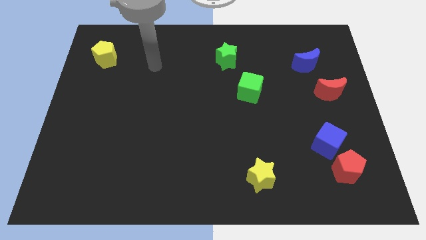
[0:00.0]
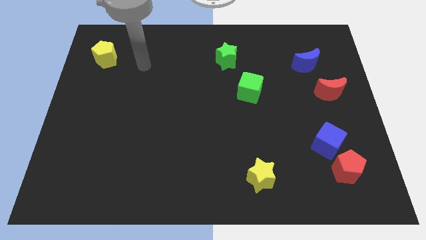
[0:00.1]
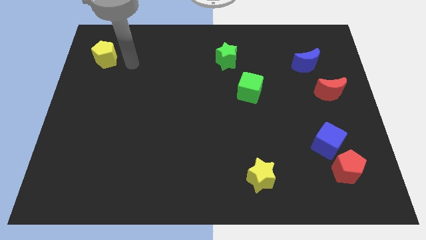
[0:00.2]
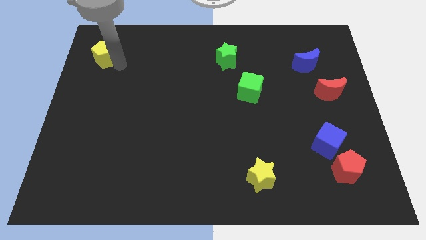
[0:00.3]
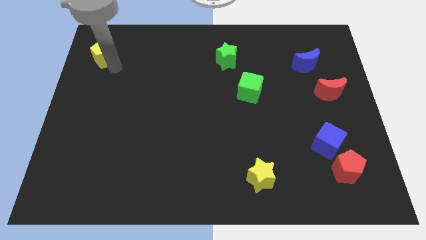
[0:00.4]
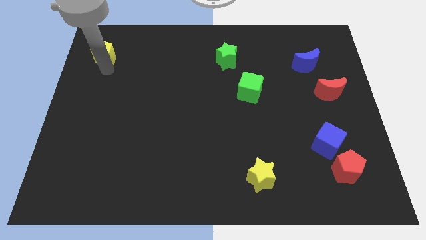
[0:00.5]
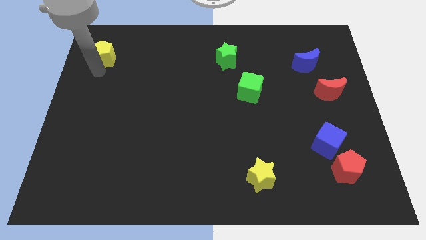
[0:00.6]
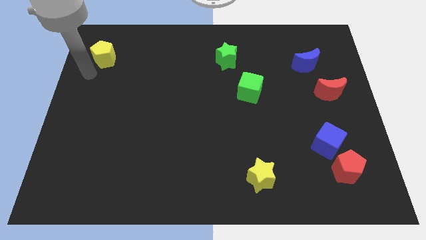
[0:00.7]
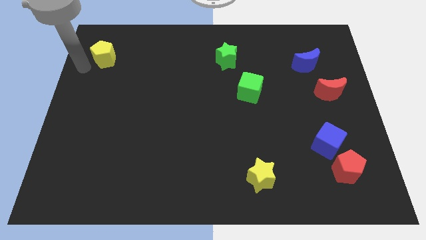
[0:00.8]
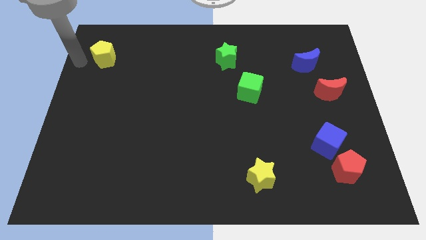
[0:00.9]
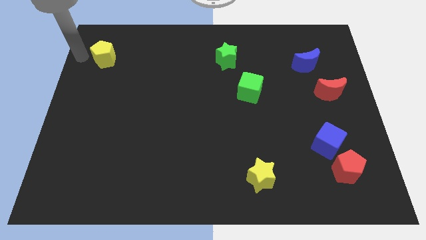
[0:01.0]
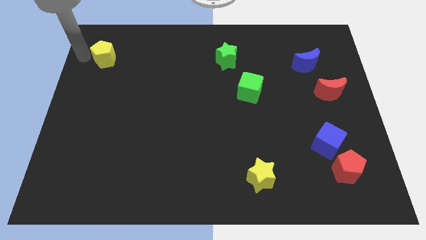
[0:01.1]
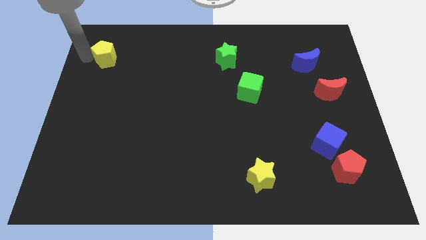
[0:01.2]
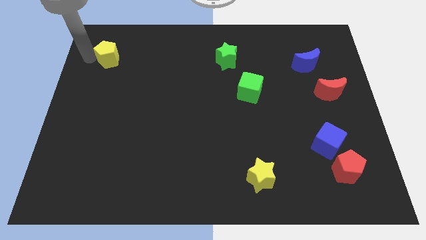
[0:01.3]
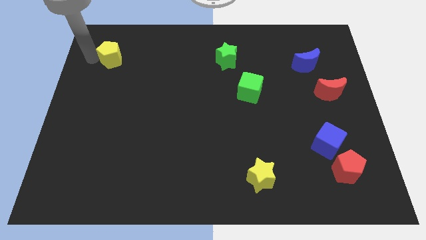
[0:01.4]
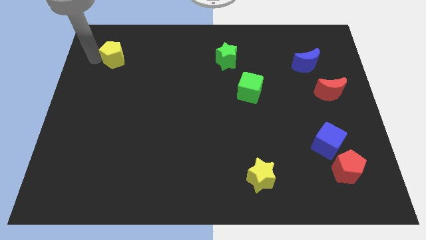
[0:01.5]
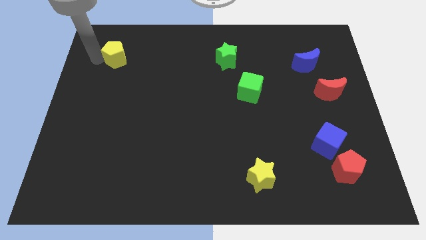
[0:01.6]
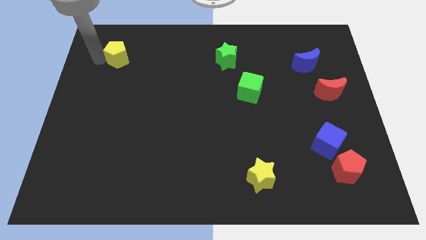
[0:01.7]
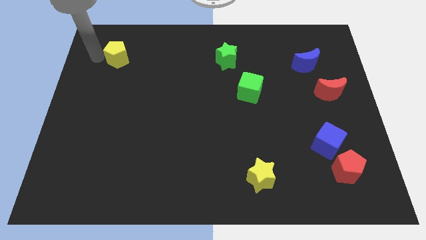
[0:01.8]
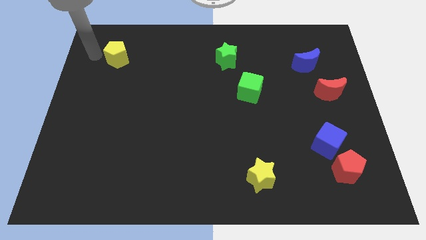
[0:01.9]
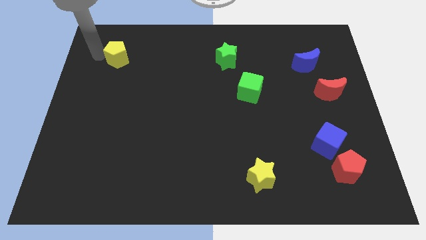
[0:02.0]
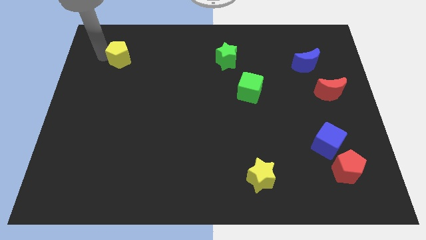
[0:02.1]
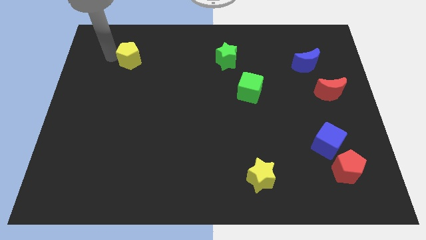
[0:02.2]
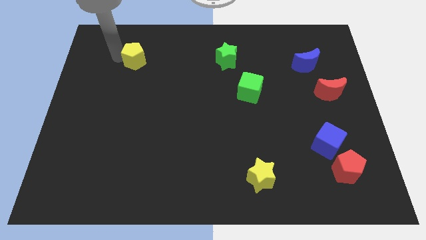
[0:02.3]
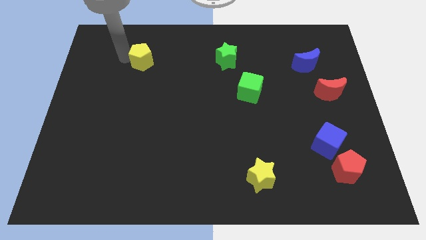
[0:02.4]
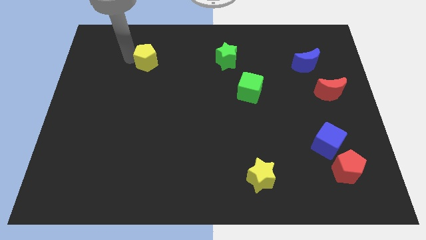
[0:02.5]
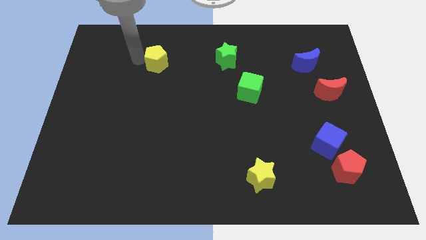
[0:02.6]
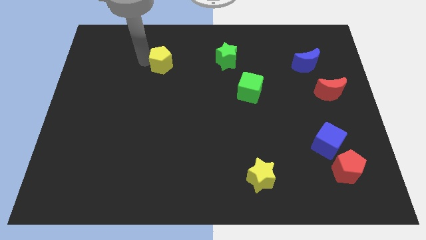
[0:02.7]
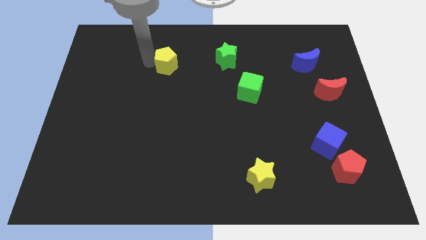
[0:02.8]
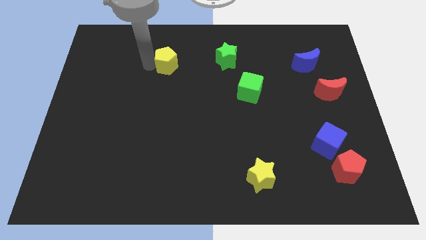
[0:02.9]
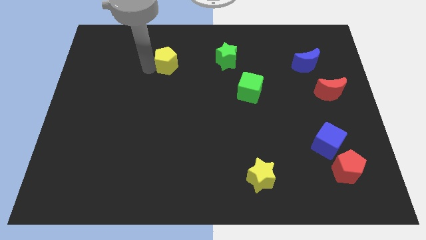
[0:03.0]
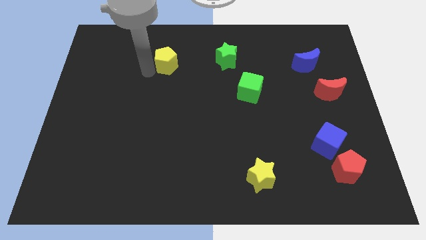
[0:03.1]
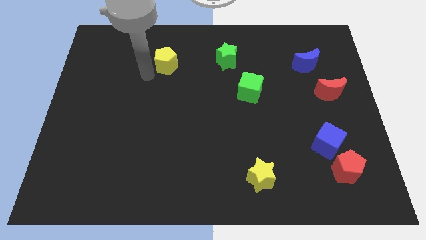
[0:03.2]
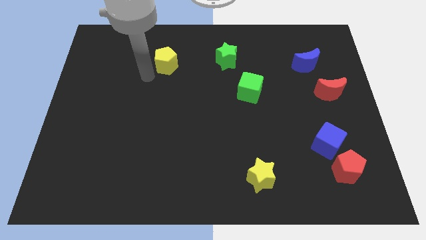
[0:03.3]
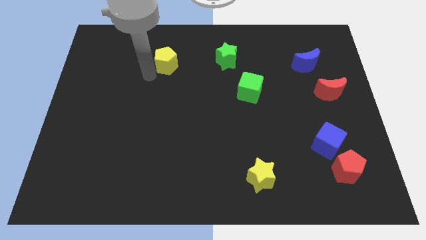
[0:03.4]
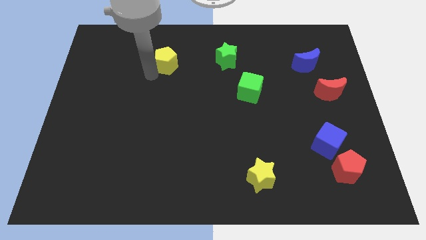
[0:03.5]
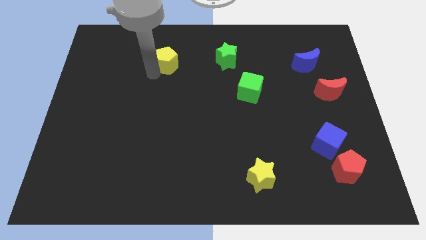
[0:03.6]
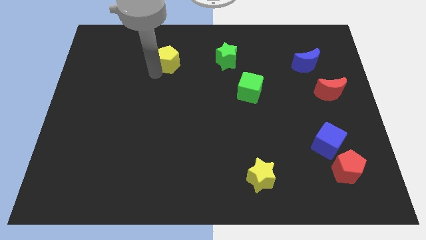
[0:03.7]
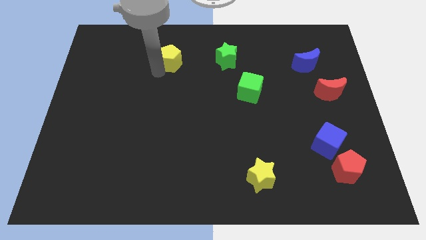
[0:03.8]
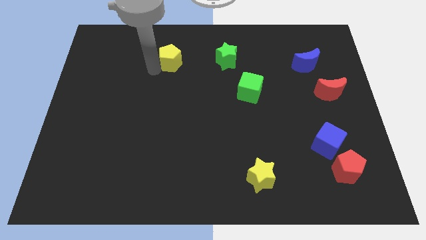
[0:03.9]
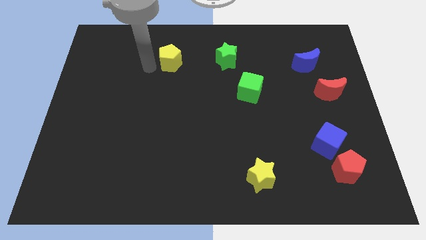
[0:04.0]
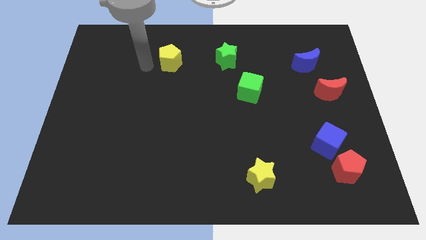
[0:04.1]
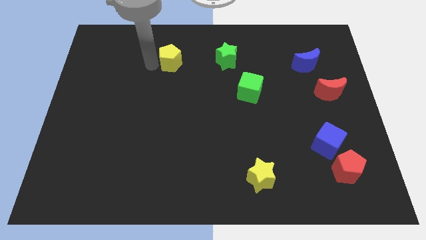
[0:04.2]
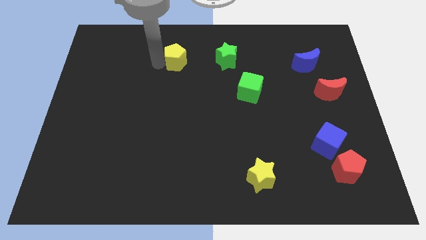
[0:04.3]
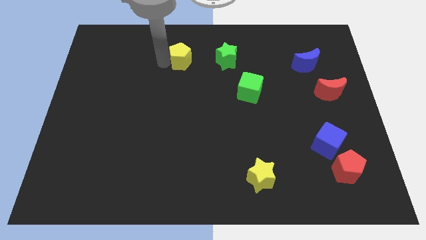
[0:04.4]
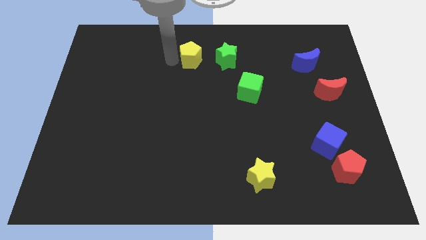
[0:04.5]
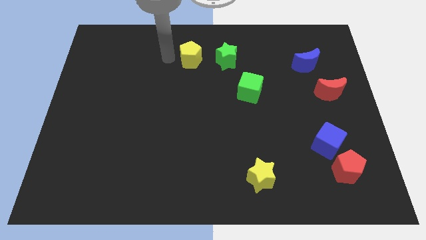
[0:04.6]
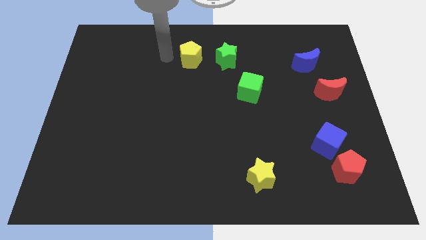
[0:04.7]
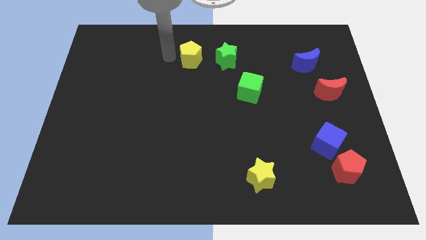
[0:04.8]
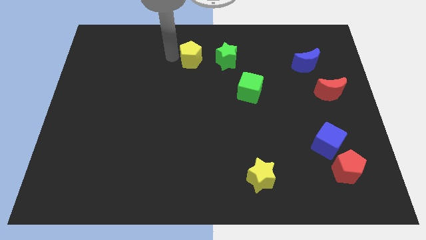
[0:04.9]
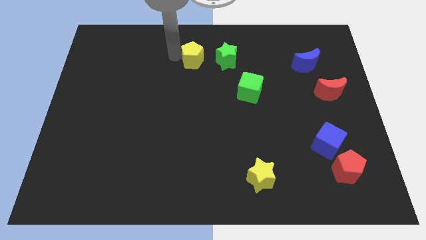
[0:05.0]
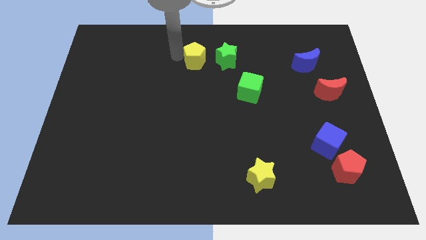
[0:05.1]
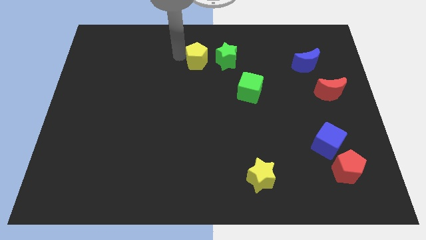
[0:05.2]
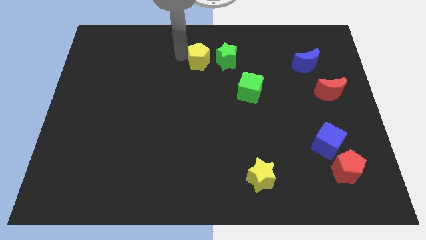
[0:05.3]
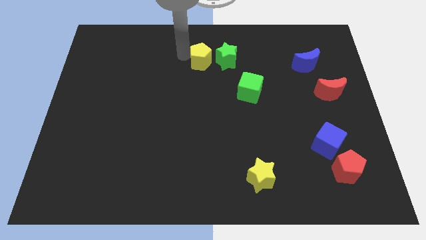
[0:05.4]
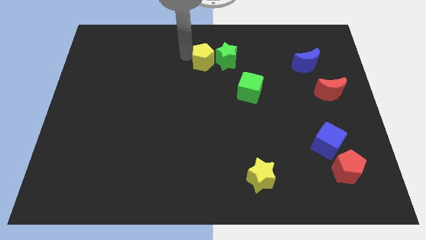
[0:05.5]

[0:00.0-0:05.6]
slide the yellow pentagon towards the green star

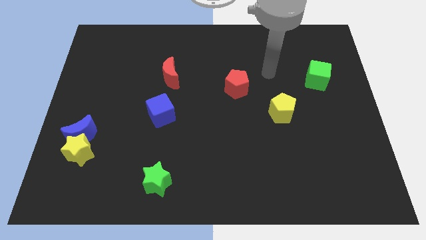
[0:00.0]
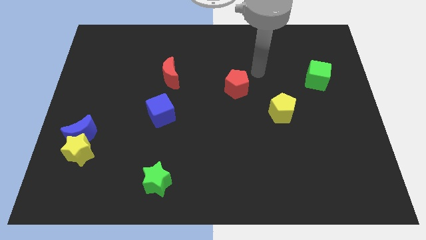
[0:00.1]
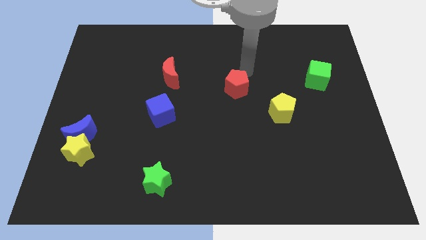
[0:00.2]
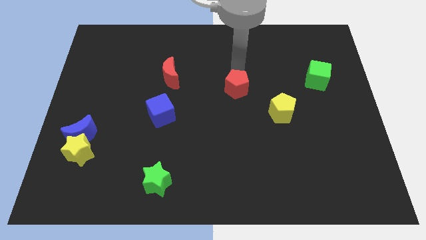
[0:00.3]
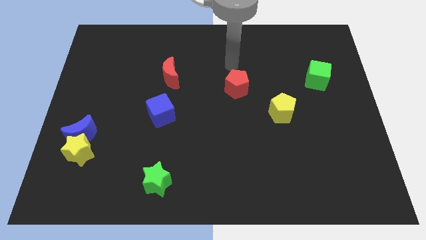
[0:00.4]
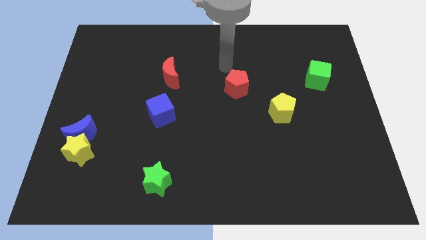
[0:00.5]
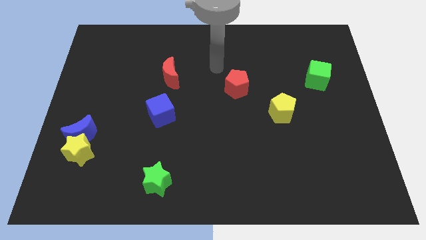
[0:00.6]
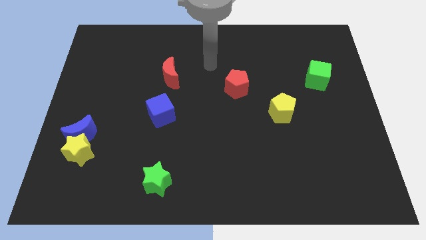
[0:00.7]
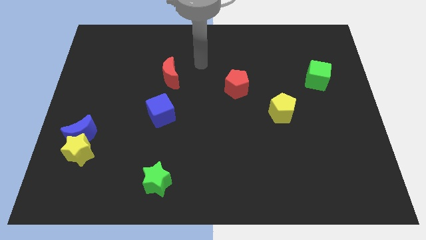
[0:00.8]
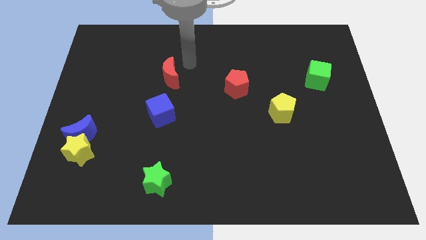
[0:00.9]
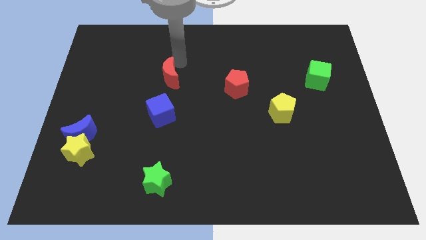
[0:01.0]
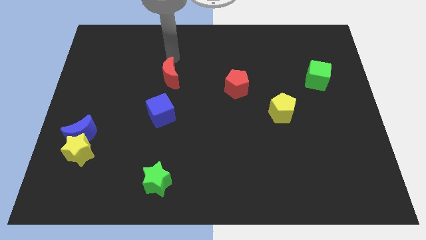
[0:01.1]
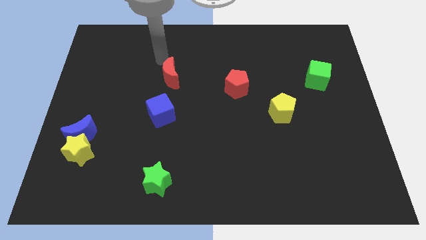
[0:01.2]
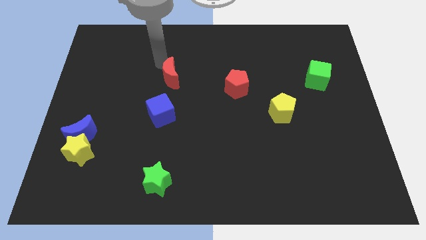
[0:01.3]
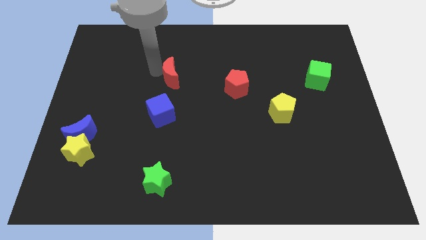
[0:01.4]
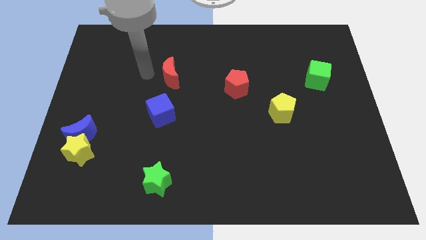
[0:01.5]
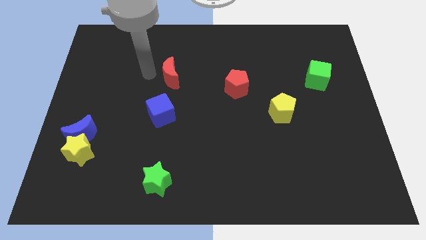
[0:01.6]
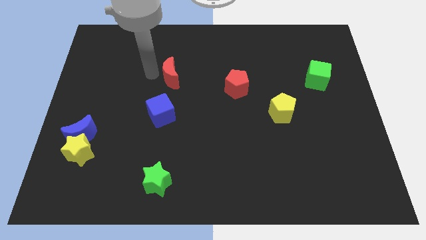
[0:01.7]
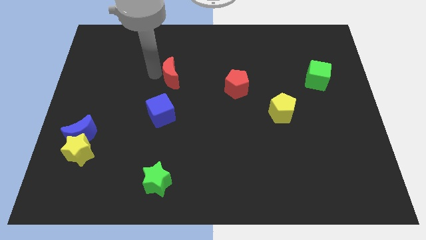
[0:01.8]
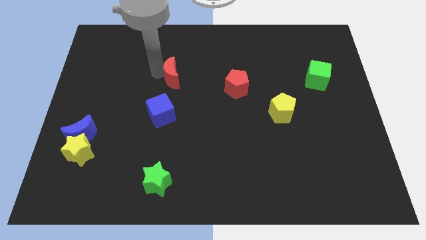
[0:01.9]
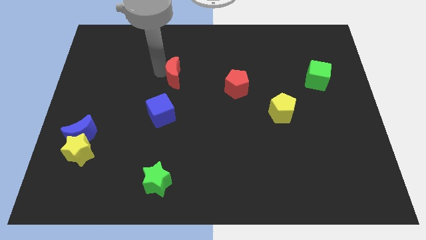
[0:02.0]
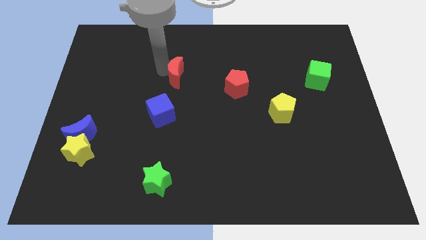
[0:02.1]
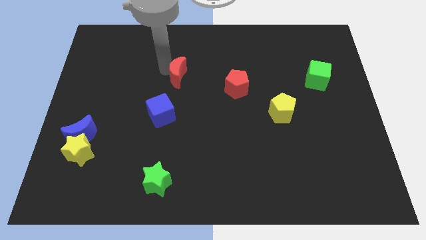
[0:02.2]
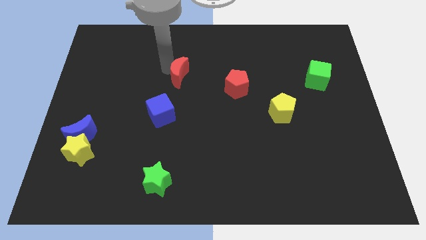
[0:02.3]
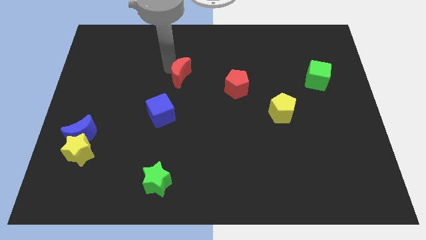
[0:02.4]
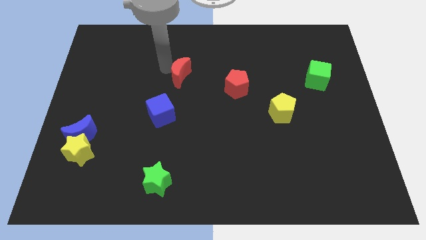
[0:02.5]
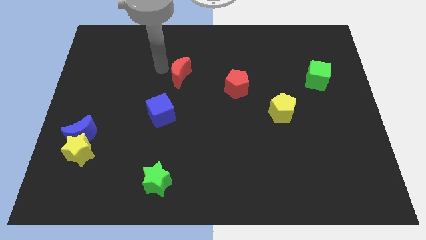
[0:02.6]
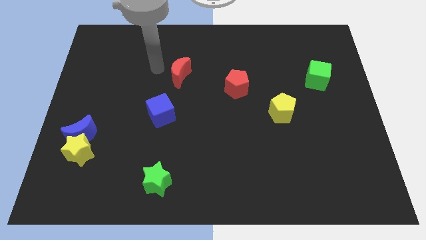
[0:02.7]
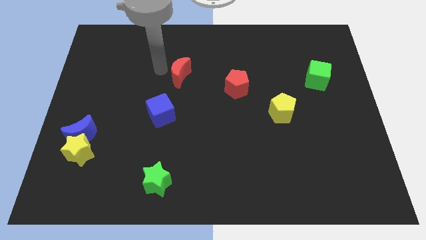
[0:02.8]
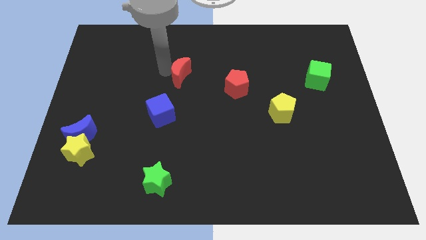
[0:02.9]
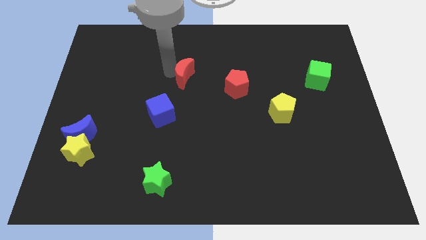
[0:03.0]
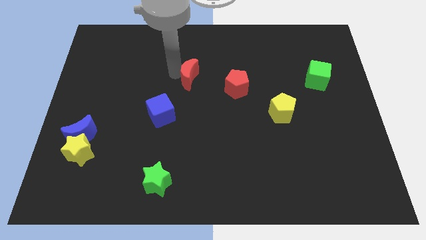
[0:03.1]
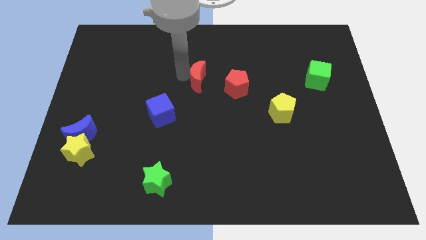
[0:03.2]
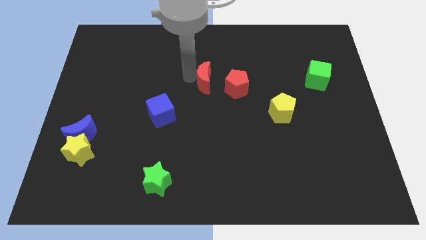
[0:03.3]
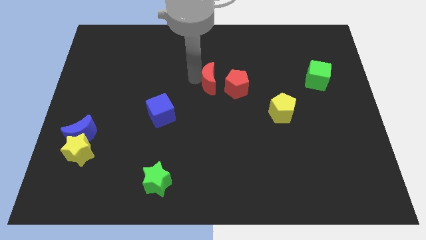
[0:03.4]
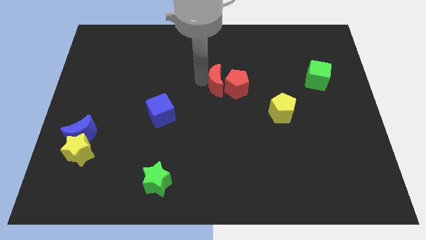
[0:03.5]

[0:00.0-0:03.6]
slide the red moon towards the red pentagon
